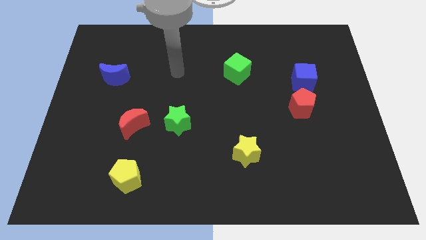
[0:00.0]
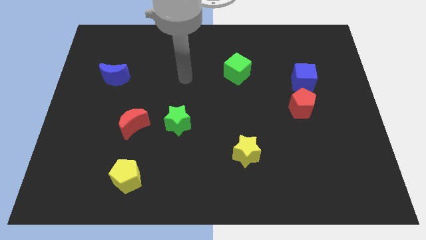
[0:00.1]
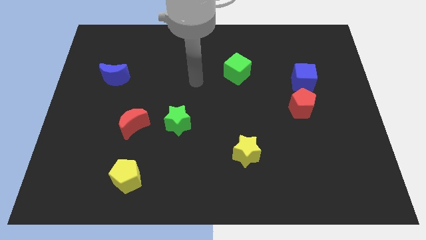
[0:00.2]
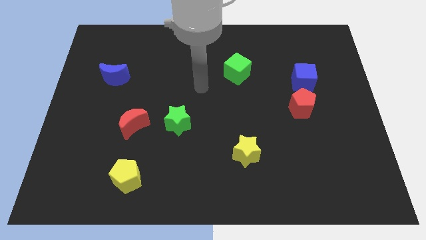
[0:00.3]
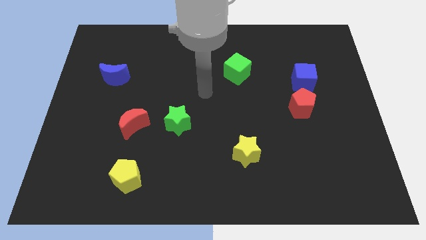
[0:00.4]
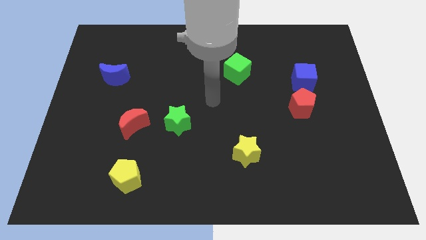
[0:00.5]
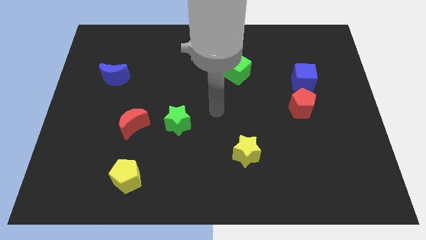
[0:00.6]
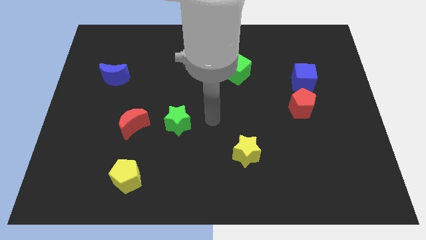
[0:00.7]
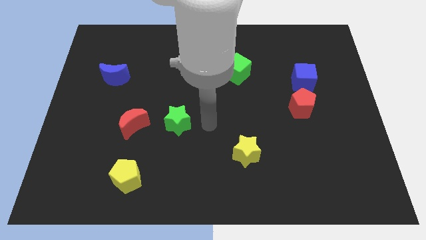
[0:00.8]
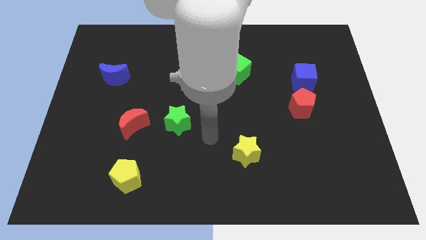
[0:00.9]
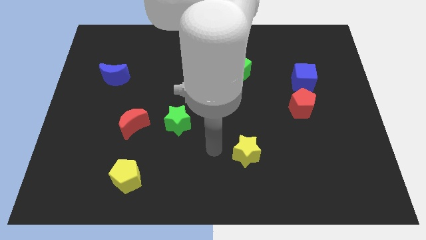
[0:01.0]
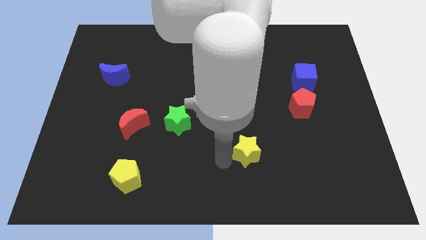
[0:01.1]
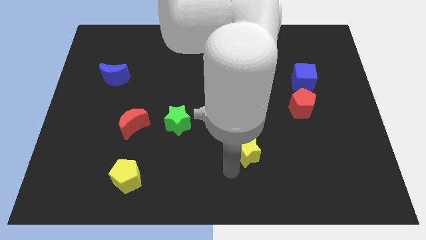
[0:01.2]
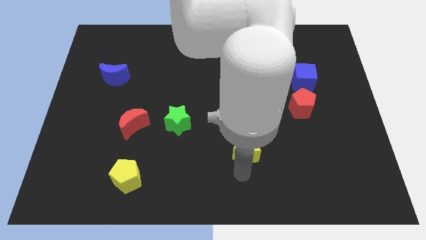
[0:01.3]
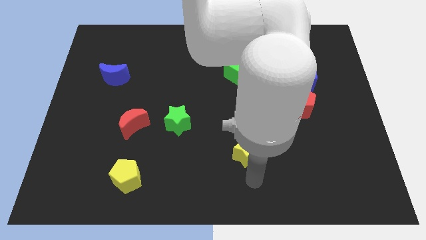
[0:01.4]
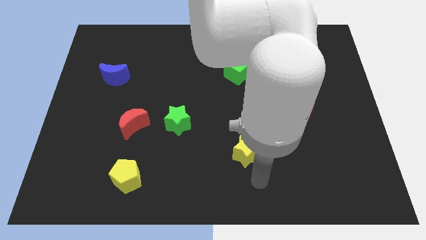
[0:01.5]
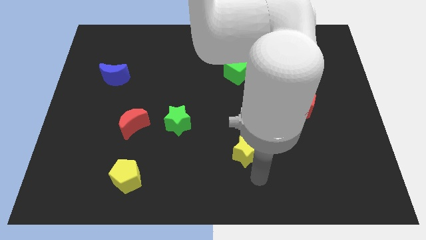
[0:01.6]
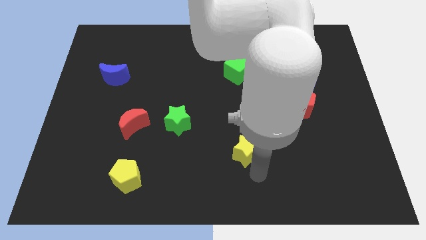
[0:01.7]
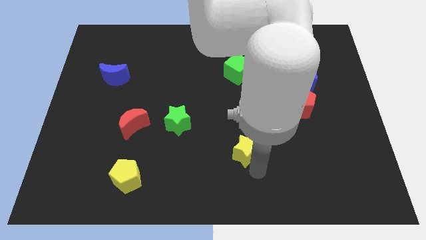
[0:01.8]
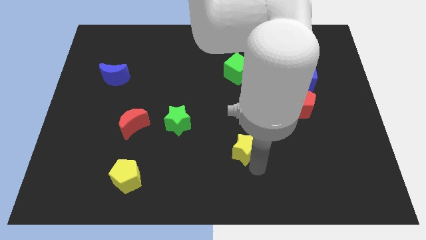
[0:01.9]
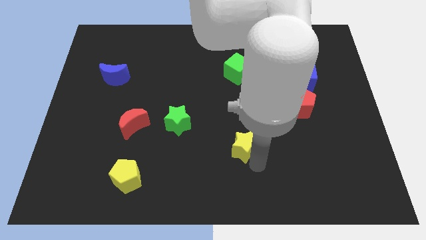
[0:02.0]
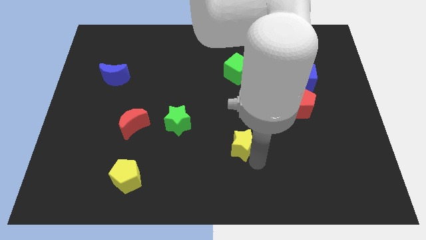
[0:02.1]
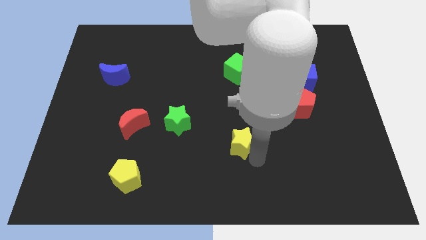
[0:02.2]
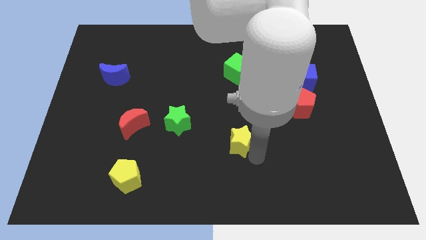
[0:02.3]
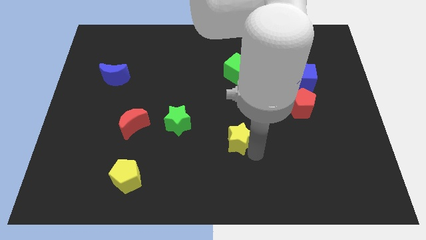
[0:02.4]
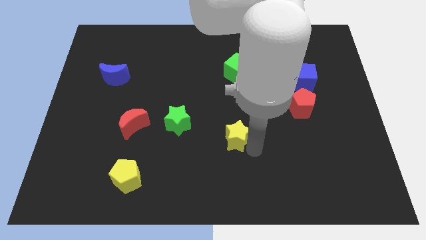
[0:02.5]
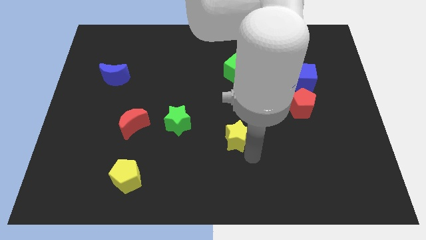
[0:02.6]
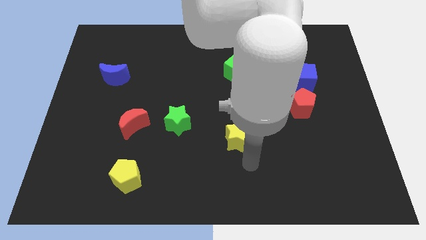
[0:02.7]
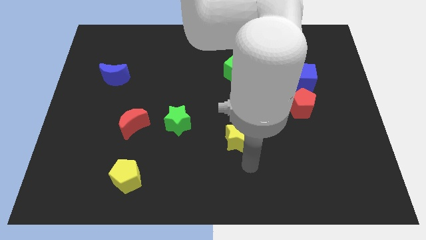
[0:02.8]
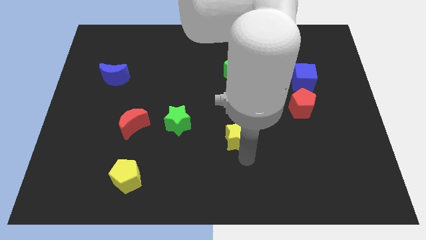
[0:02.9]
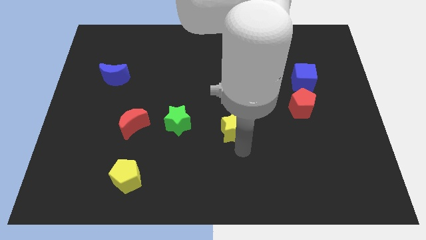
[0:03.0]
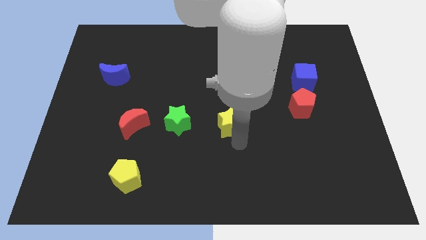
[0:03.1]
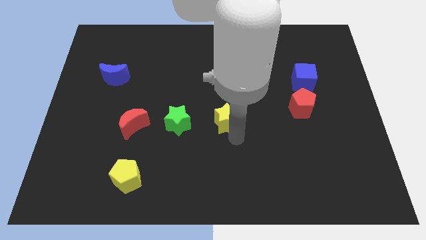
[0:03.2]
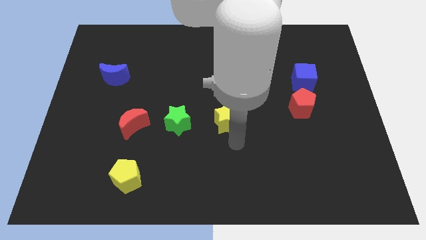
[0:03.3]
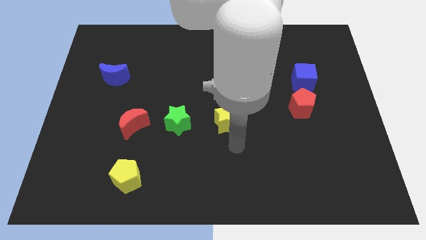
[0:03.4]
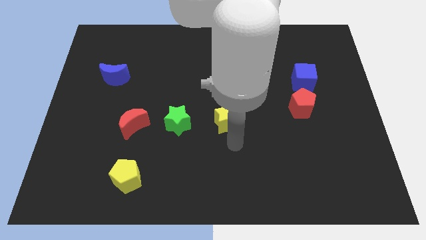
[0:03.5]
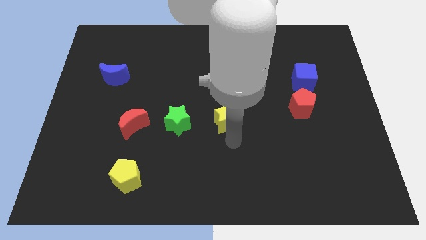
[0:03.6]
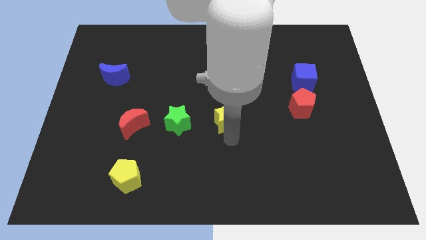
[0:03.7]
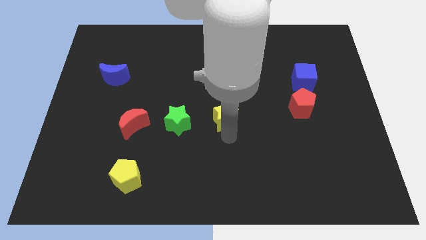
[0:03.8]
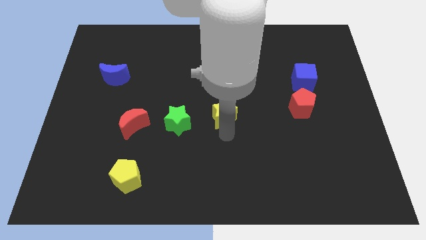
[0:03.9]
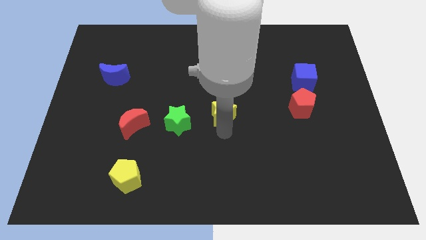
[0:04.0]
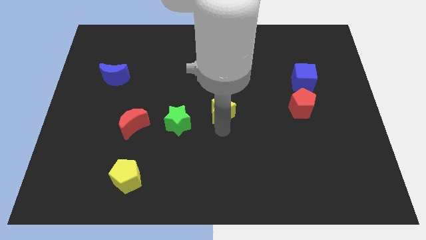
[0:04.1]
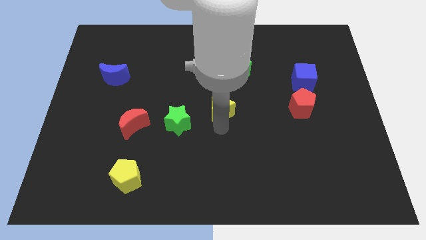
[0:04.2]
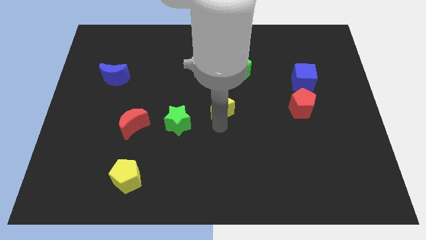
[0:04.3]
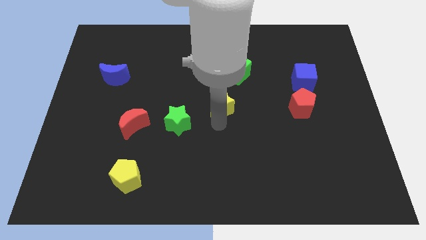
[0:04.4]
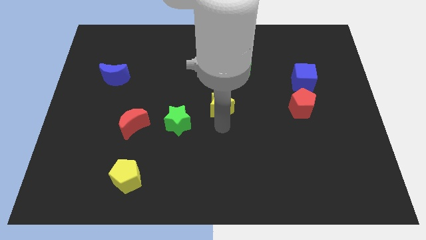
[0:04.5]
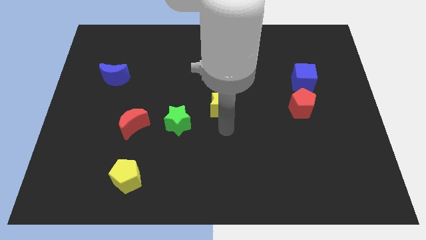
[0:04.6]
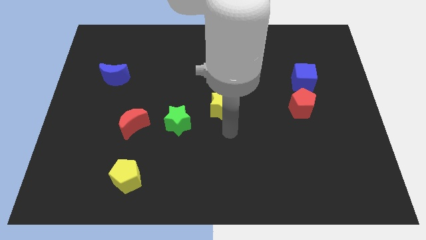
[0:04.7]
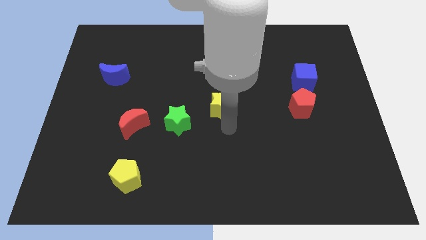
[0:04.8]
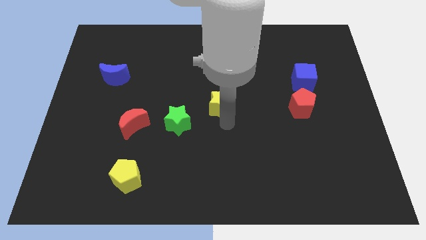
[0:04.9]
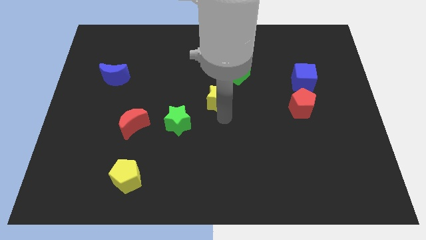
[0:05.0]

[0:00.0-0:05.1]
slide the yellow star to the bottom left side of the green cube

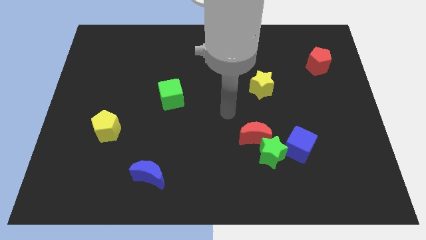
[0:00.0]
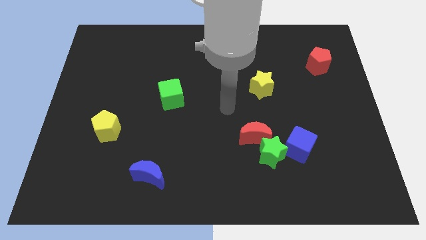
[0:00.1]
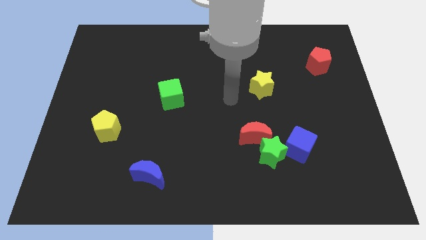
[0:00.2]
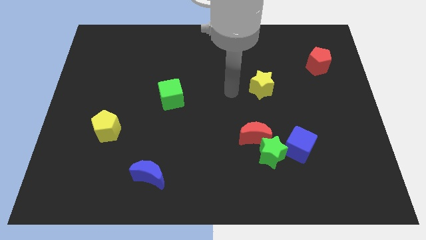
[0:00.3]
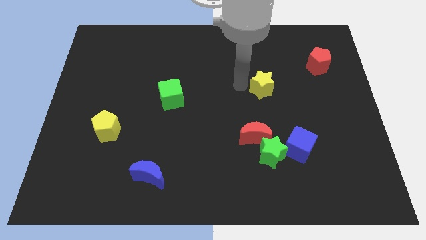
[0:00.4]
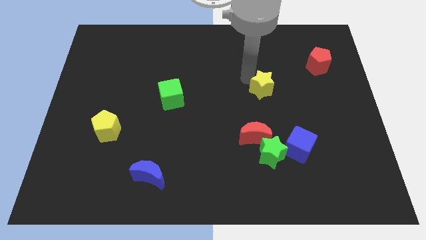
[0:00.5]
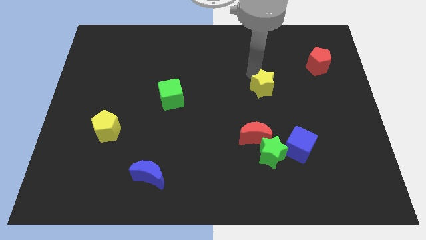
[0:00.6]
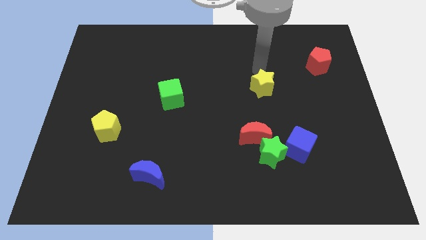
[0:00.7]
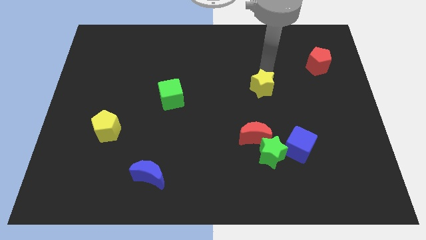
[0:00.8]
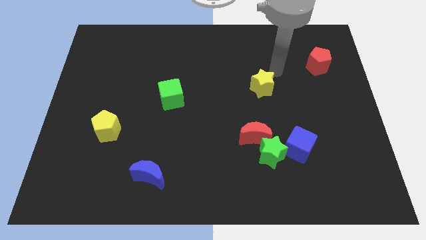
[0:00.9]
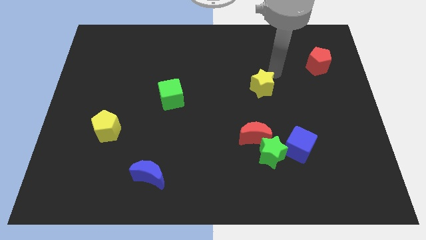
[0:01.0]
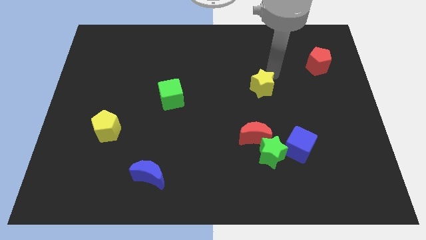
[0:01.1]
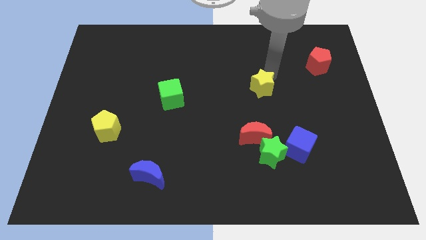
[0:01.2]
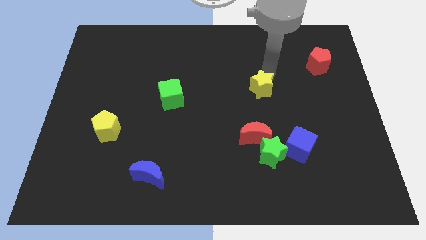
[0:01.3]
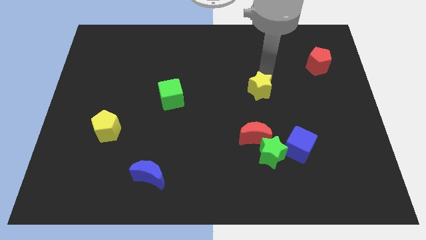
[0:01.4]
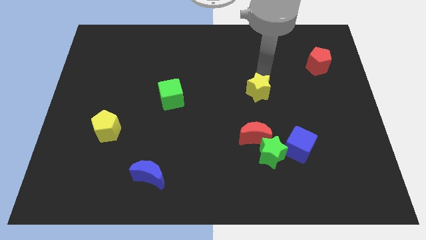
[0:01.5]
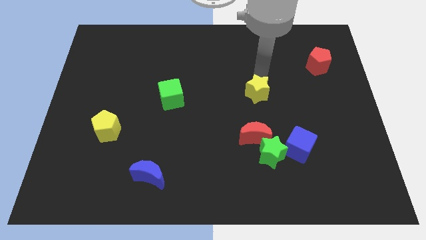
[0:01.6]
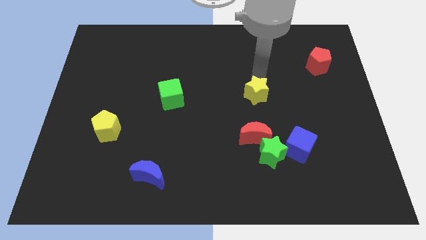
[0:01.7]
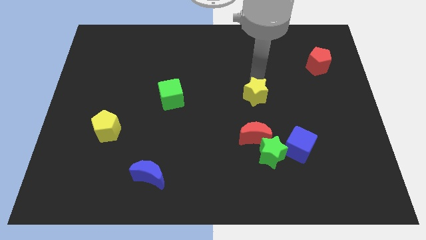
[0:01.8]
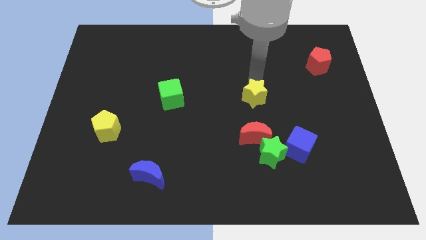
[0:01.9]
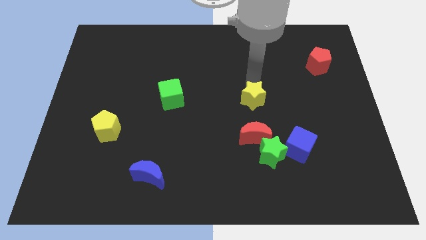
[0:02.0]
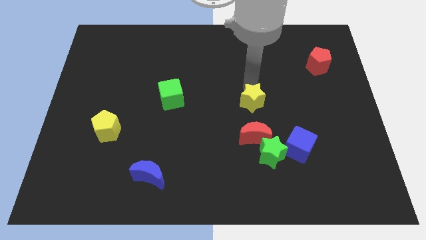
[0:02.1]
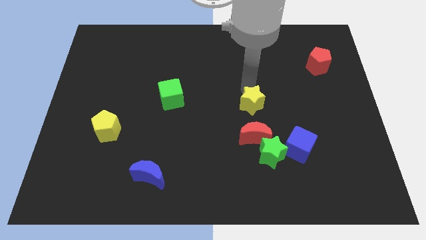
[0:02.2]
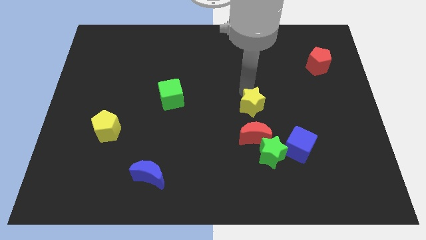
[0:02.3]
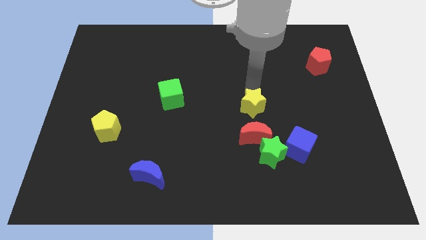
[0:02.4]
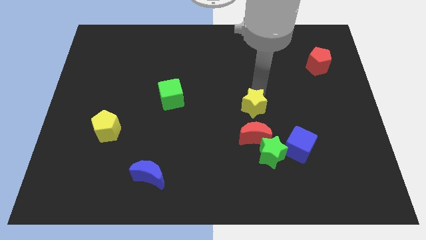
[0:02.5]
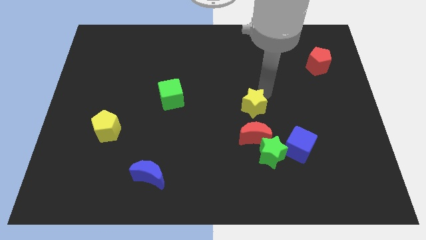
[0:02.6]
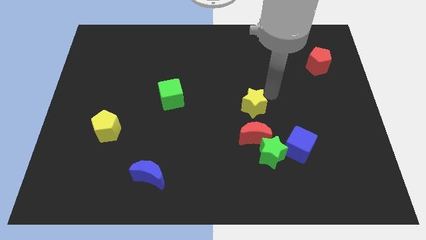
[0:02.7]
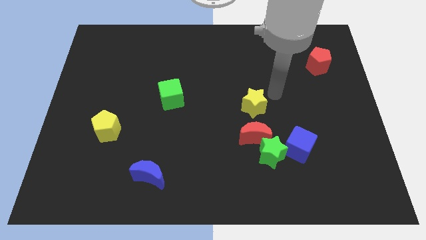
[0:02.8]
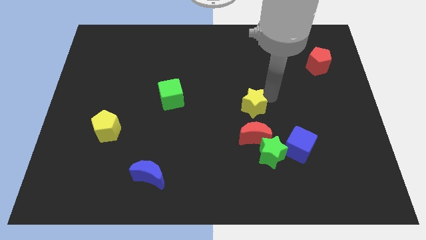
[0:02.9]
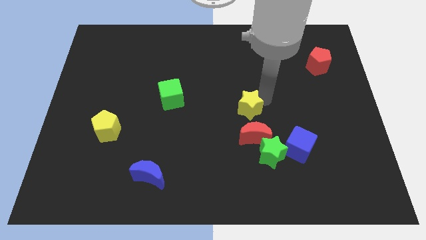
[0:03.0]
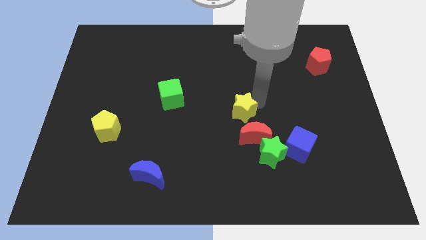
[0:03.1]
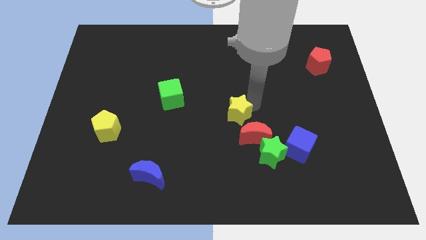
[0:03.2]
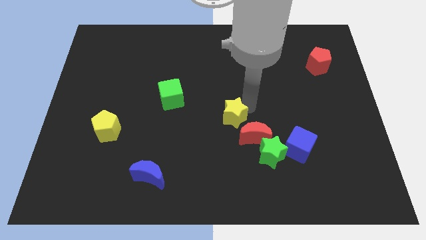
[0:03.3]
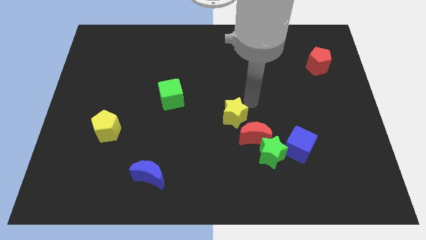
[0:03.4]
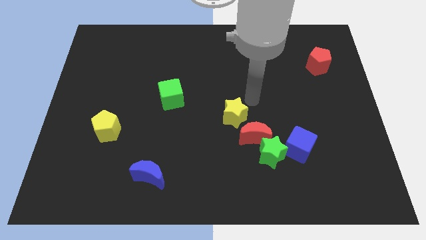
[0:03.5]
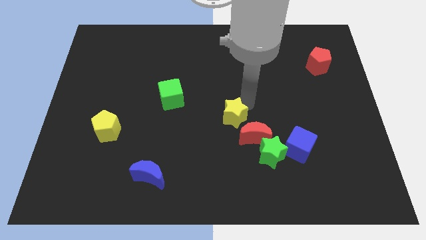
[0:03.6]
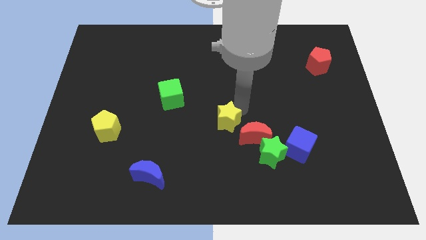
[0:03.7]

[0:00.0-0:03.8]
push the yellow star left of the red moon
